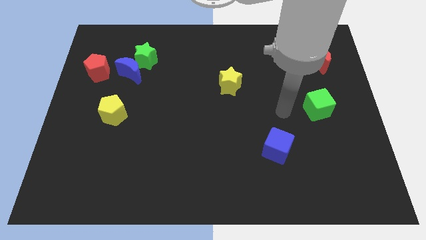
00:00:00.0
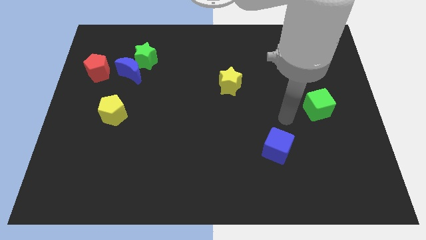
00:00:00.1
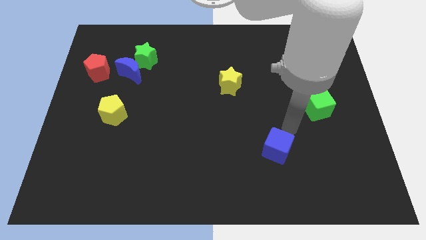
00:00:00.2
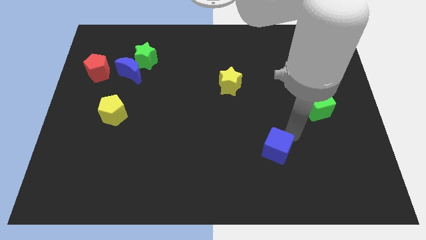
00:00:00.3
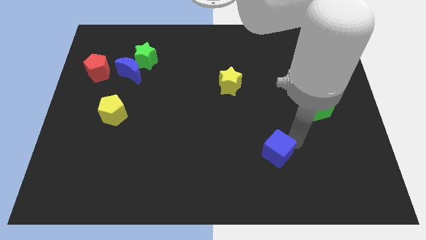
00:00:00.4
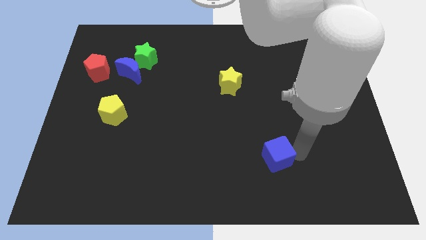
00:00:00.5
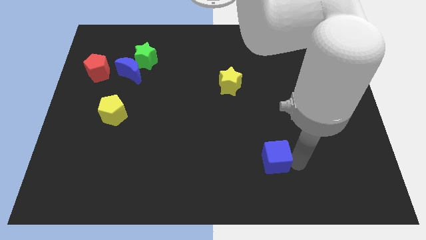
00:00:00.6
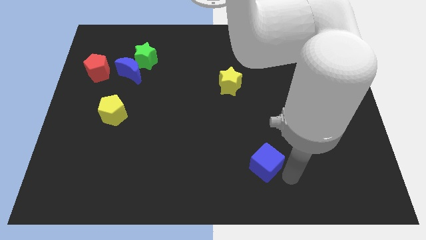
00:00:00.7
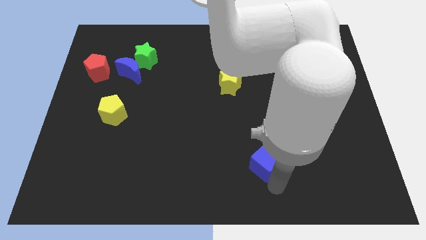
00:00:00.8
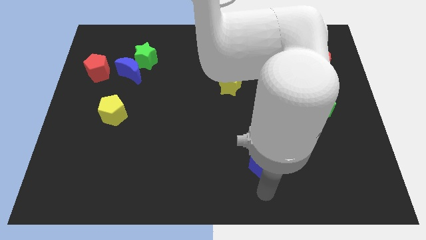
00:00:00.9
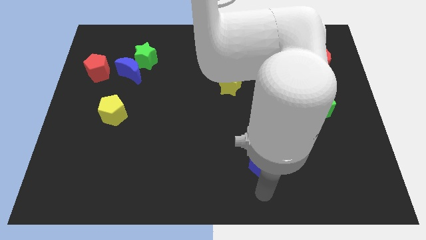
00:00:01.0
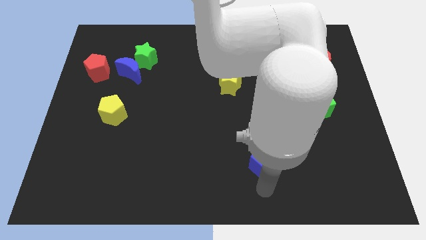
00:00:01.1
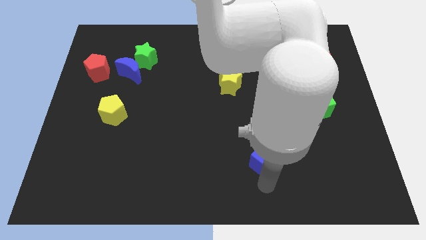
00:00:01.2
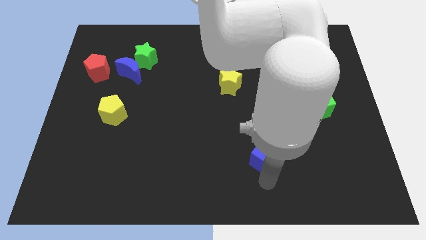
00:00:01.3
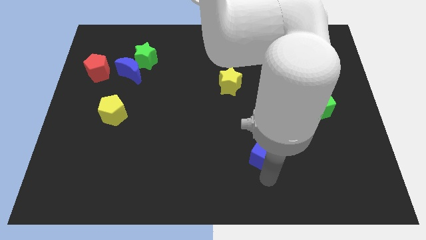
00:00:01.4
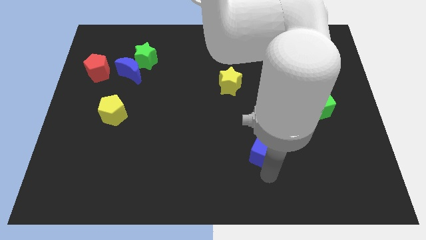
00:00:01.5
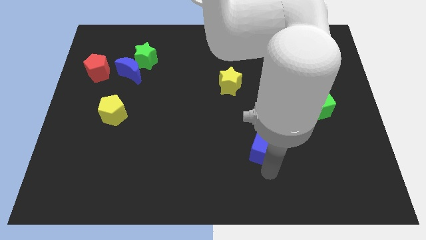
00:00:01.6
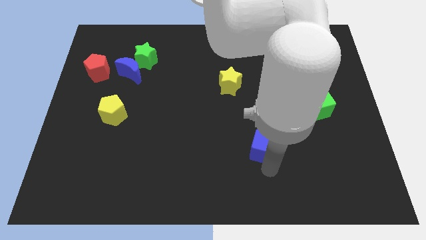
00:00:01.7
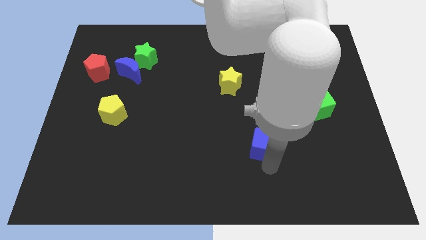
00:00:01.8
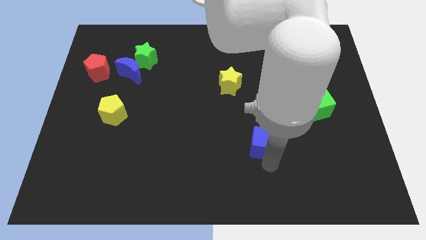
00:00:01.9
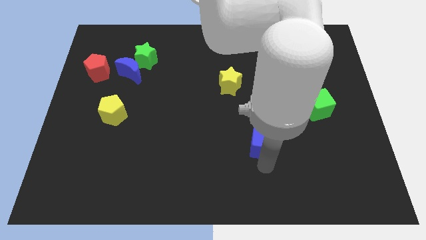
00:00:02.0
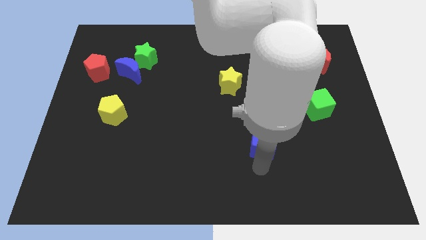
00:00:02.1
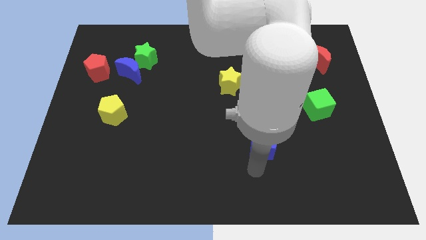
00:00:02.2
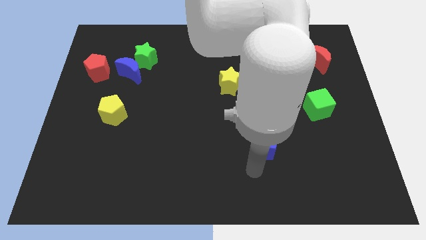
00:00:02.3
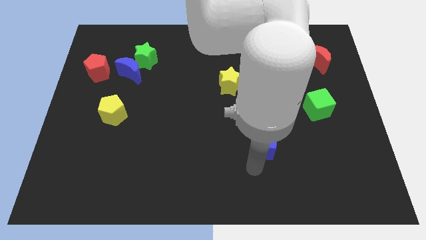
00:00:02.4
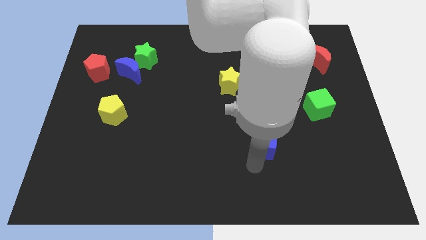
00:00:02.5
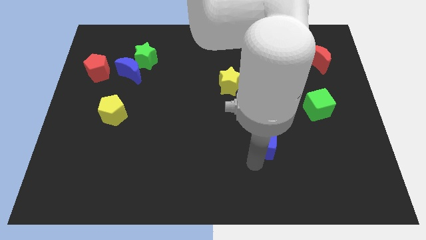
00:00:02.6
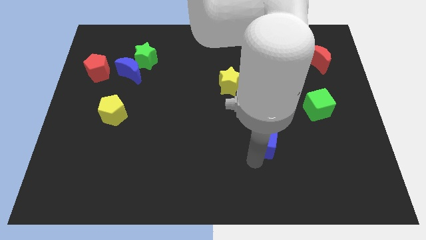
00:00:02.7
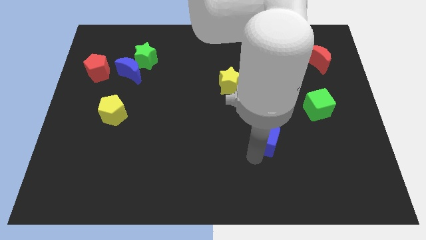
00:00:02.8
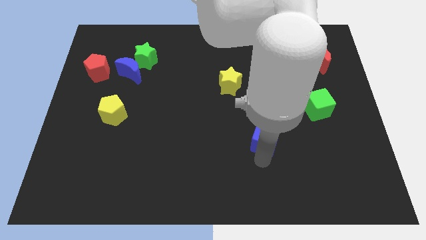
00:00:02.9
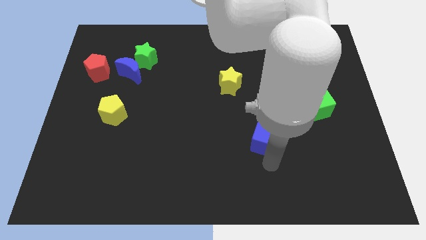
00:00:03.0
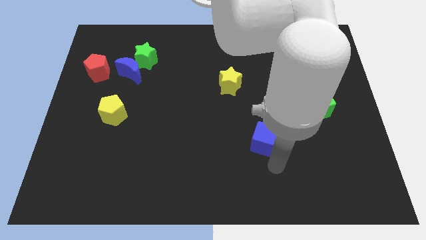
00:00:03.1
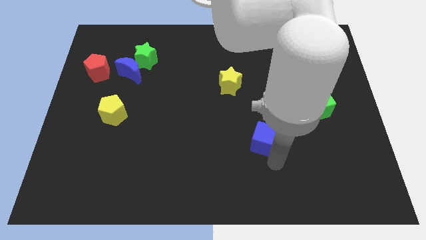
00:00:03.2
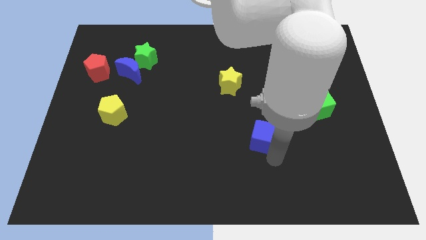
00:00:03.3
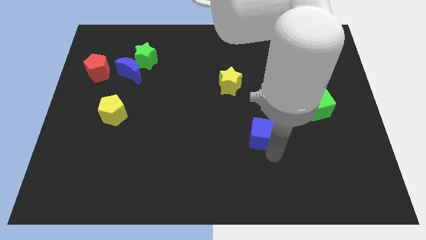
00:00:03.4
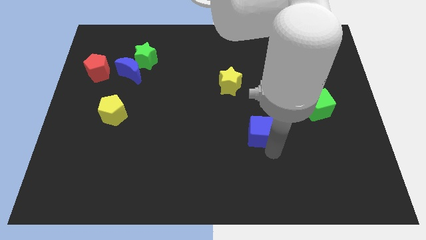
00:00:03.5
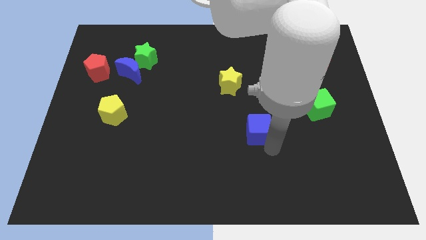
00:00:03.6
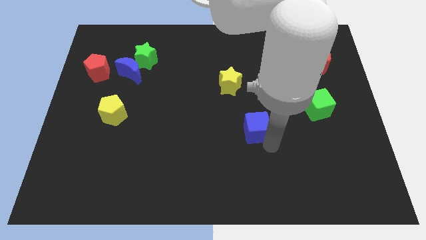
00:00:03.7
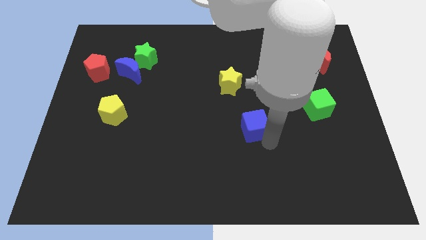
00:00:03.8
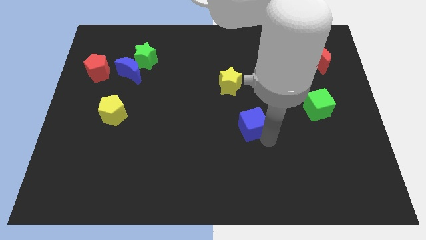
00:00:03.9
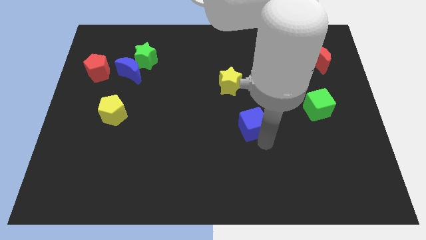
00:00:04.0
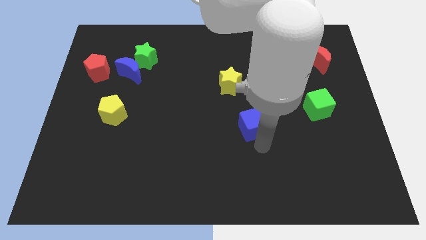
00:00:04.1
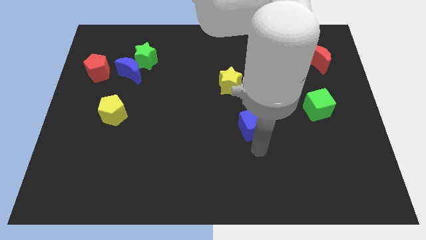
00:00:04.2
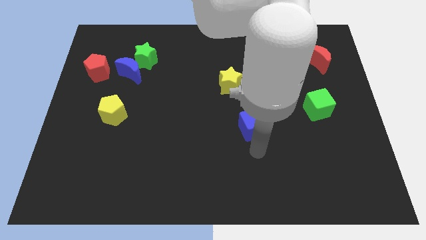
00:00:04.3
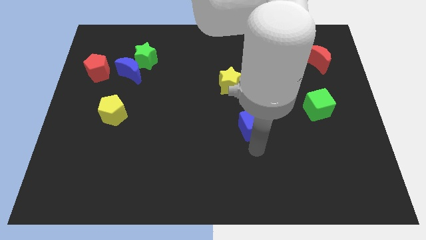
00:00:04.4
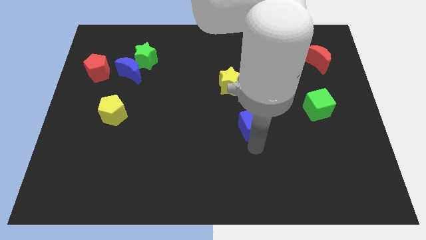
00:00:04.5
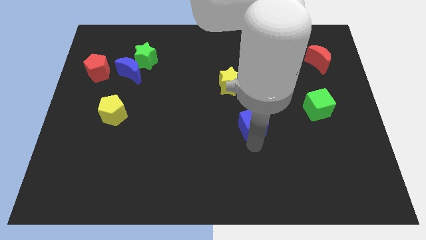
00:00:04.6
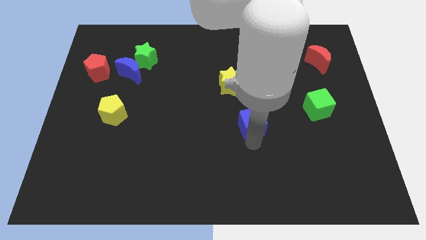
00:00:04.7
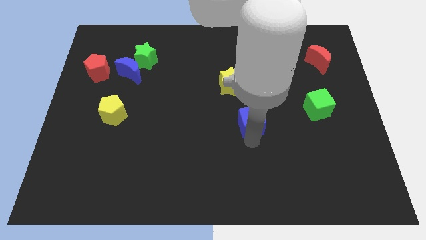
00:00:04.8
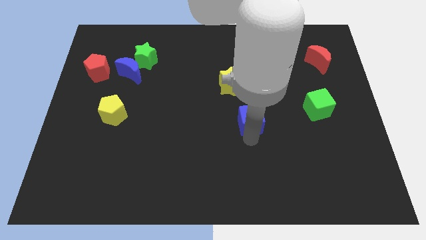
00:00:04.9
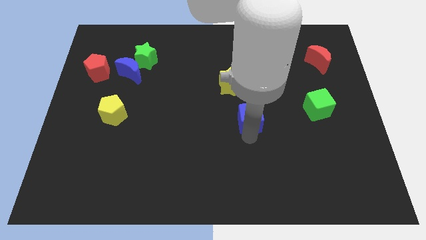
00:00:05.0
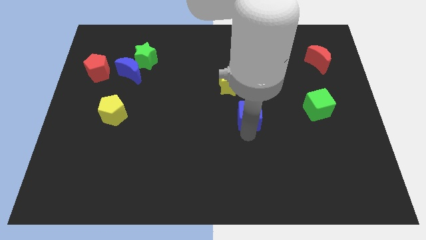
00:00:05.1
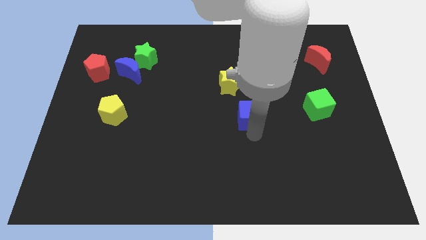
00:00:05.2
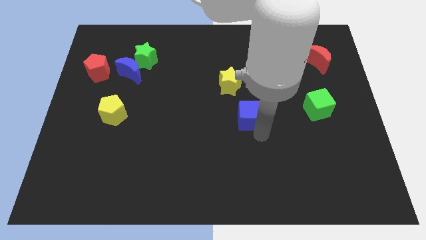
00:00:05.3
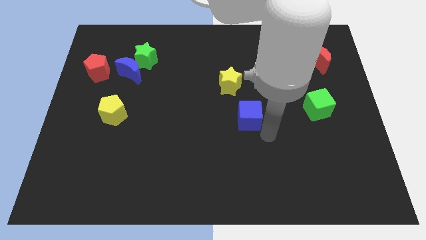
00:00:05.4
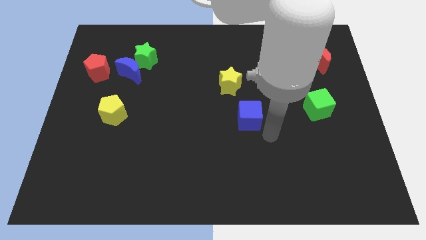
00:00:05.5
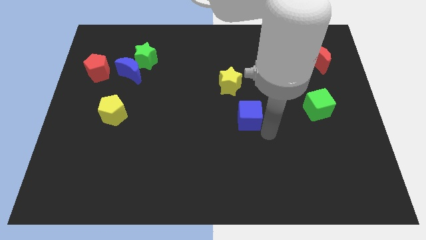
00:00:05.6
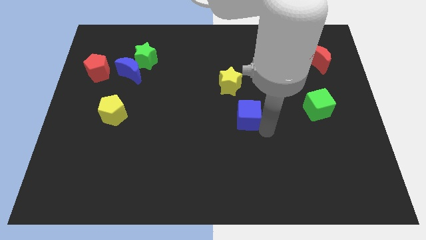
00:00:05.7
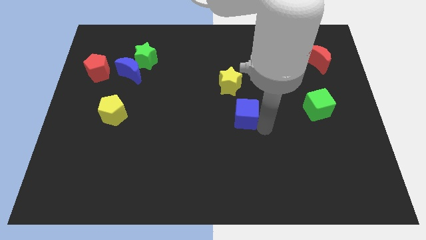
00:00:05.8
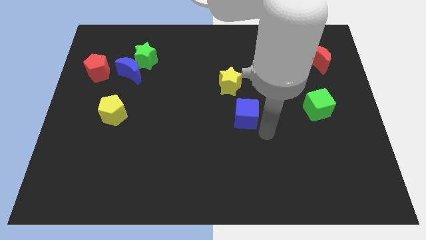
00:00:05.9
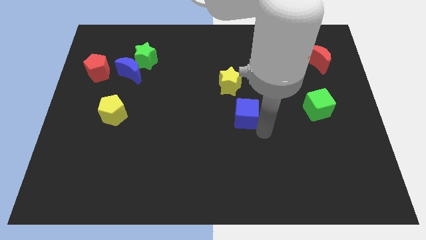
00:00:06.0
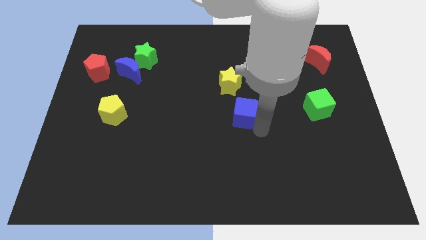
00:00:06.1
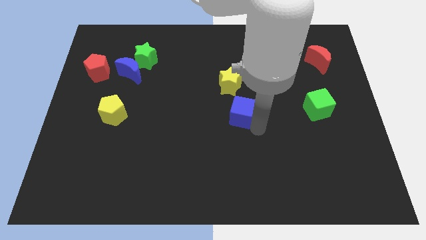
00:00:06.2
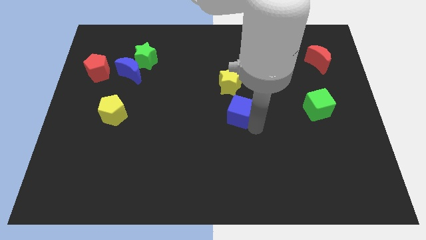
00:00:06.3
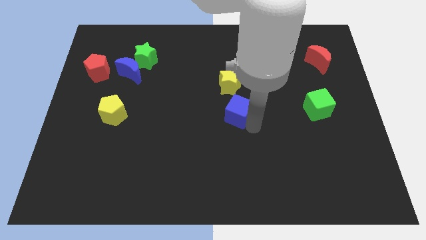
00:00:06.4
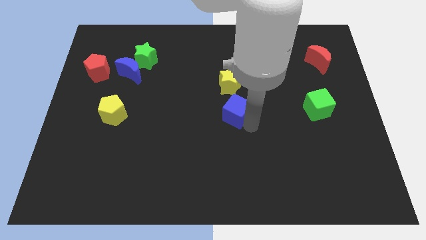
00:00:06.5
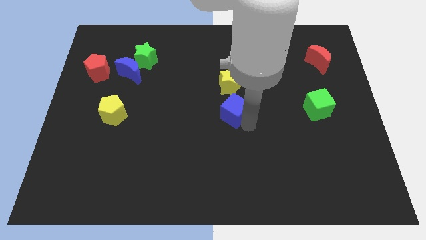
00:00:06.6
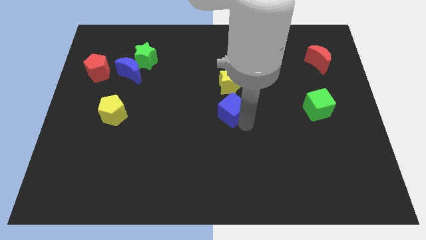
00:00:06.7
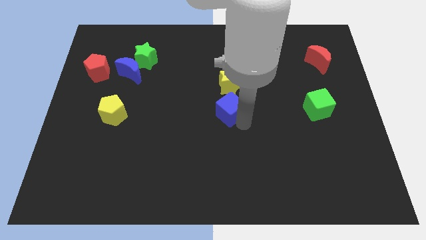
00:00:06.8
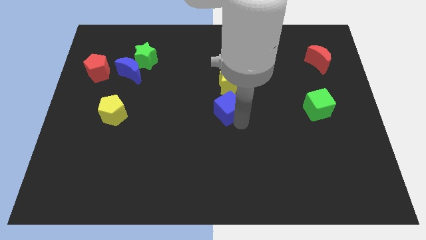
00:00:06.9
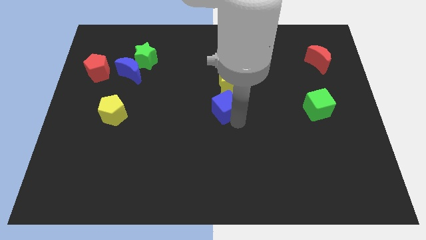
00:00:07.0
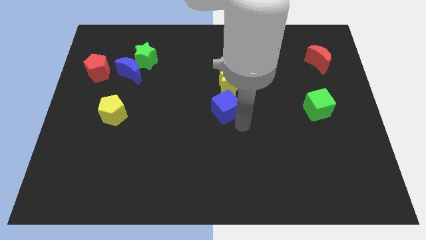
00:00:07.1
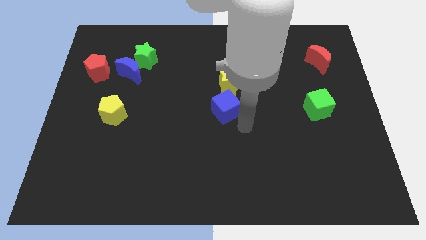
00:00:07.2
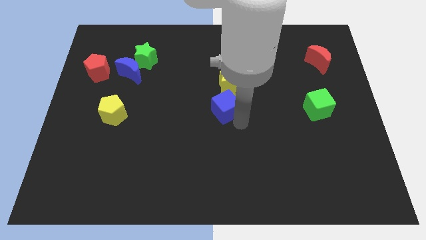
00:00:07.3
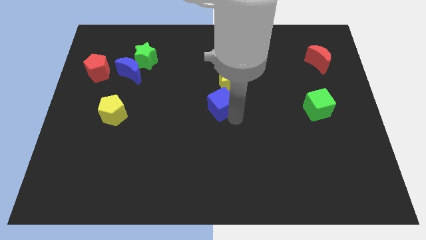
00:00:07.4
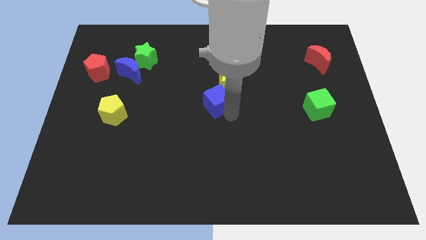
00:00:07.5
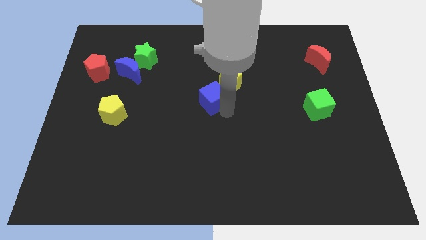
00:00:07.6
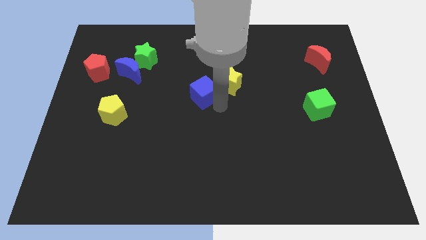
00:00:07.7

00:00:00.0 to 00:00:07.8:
move the blue cube up and to the left diagonally

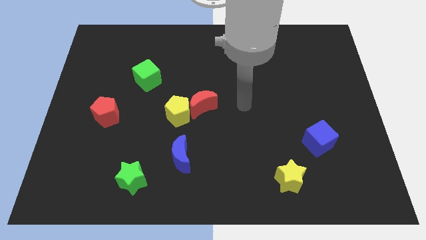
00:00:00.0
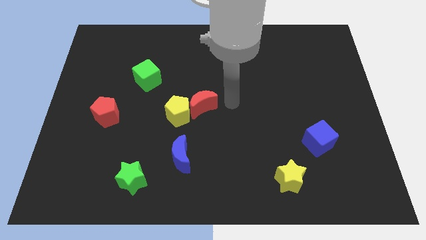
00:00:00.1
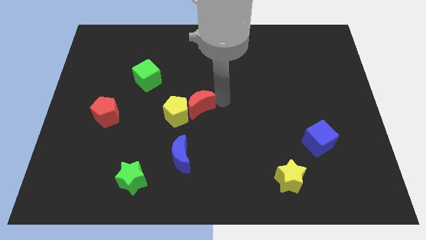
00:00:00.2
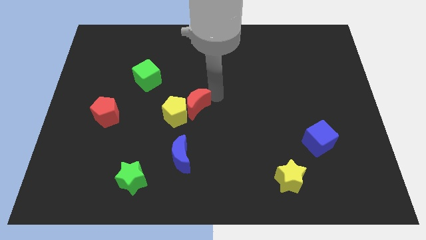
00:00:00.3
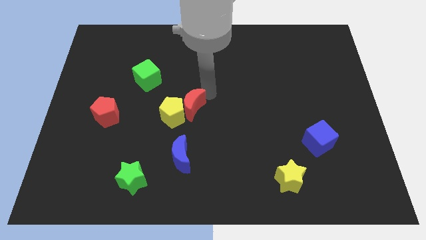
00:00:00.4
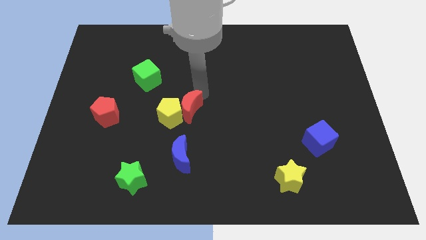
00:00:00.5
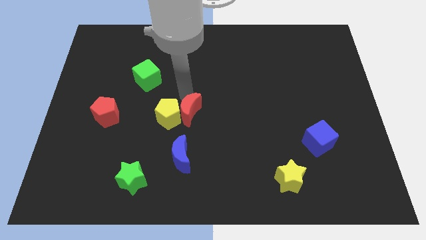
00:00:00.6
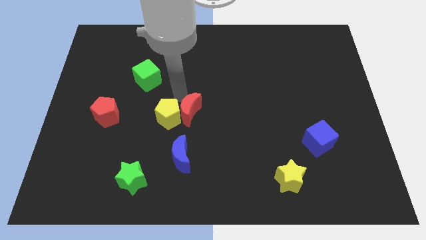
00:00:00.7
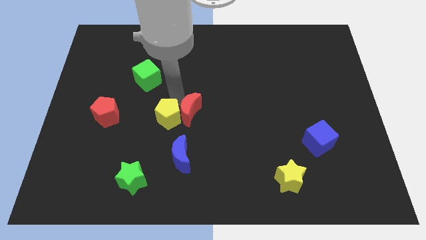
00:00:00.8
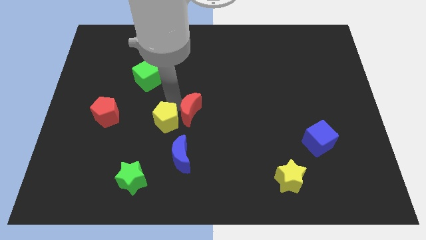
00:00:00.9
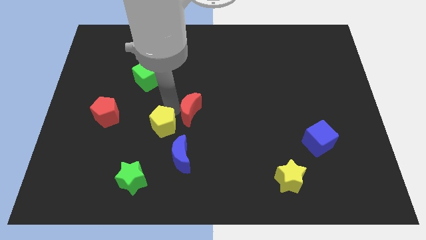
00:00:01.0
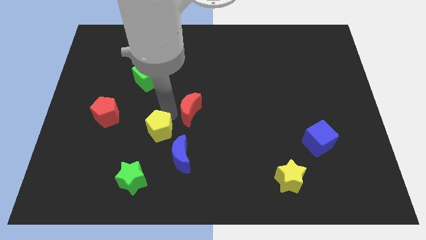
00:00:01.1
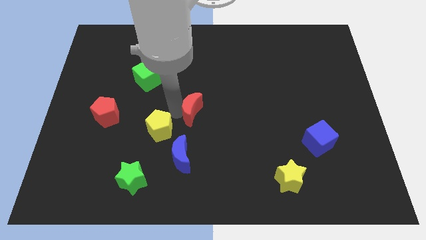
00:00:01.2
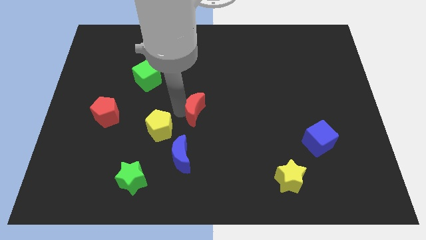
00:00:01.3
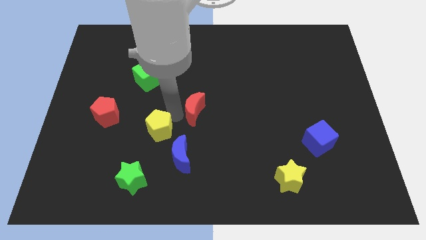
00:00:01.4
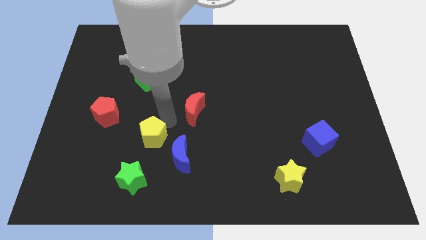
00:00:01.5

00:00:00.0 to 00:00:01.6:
move the yellow pentagon downwards and left a little
